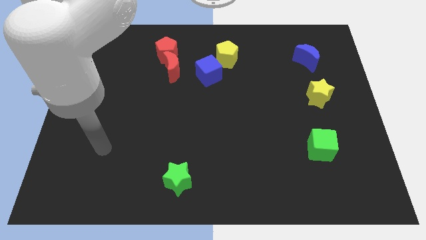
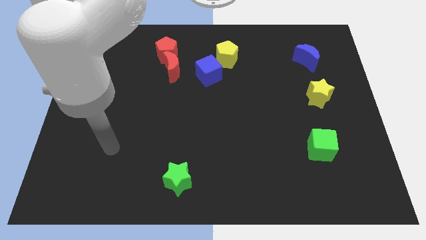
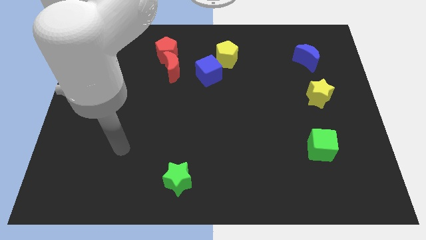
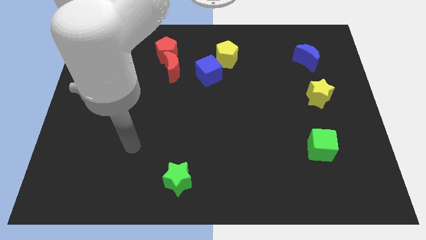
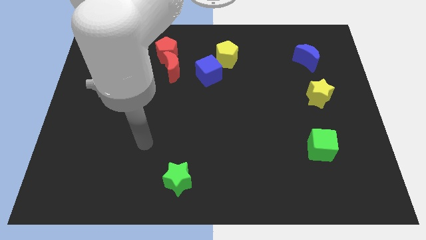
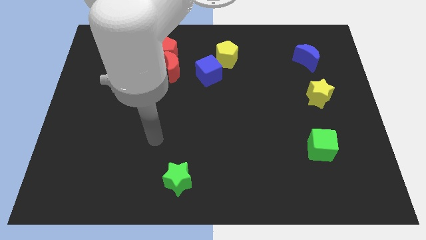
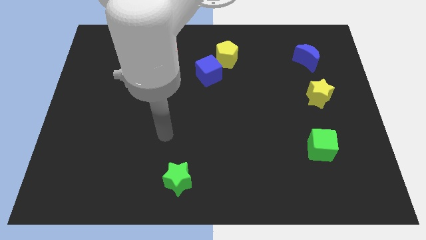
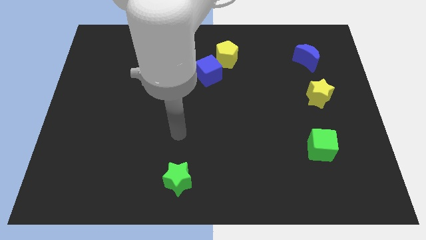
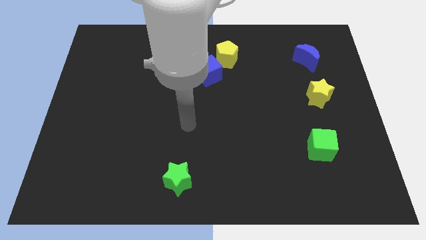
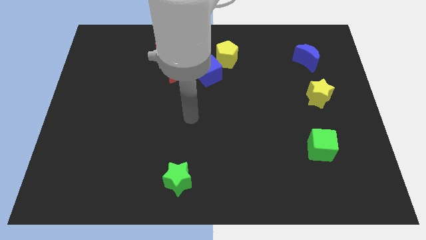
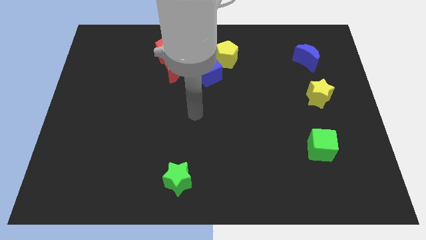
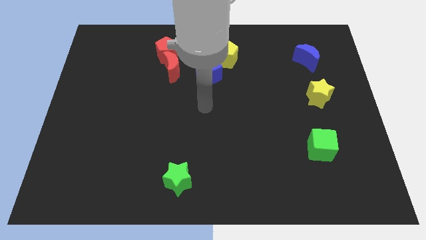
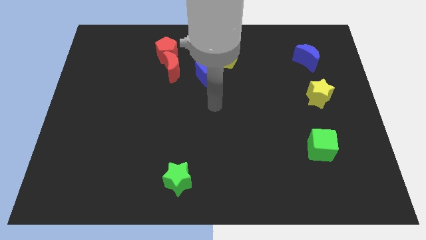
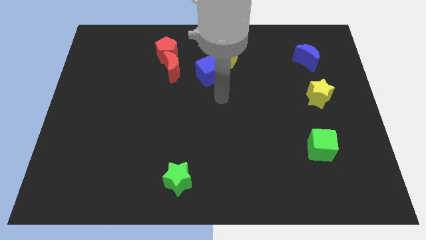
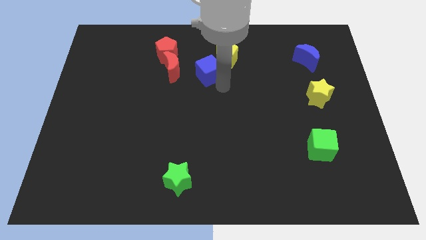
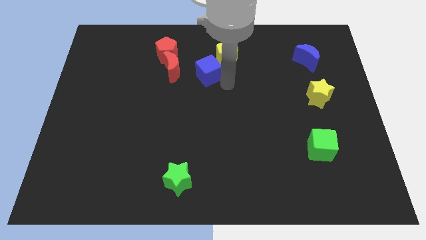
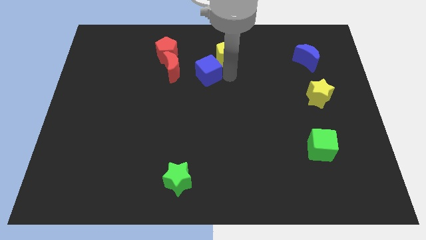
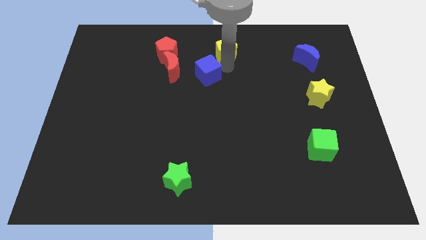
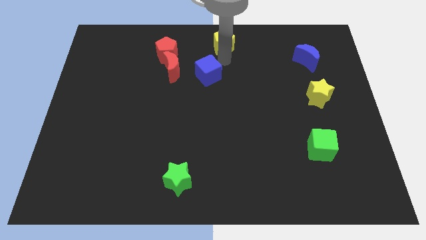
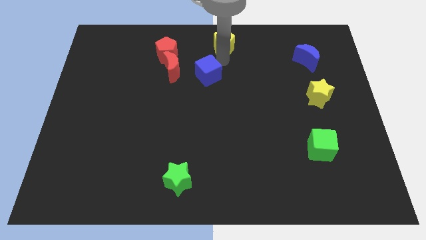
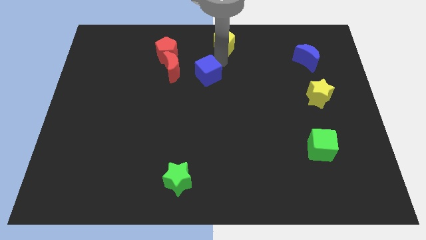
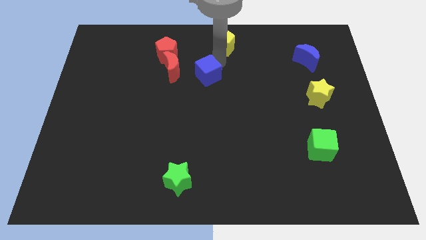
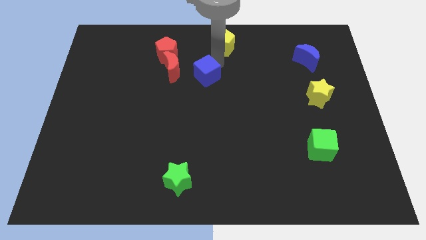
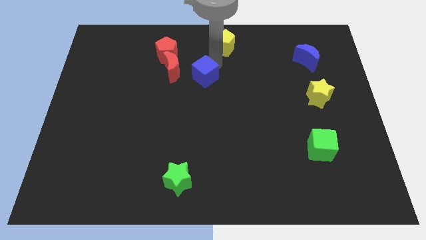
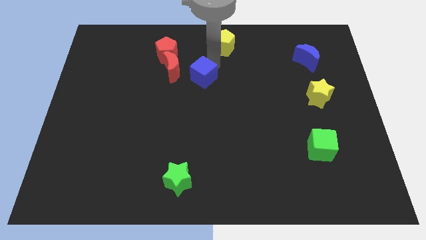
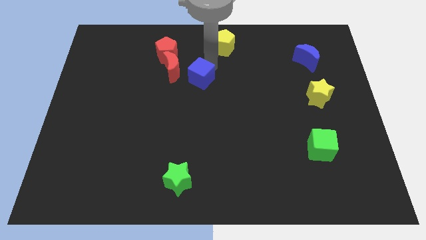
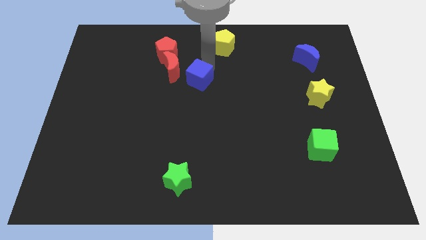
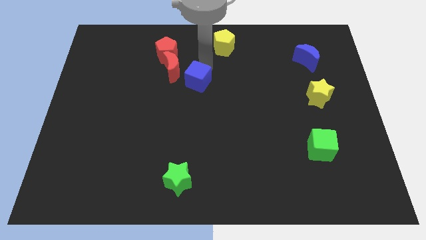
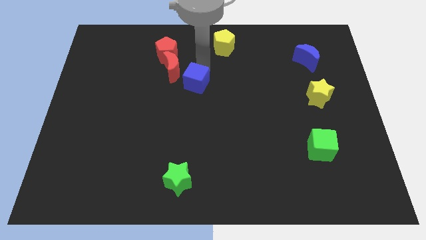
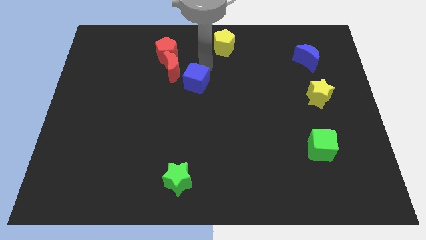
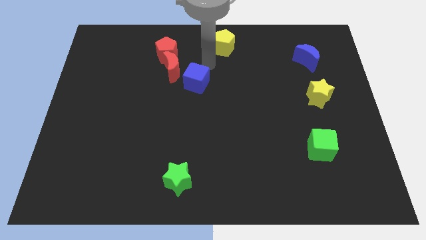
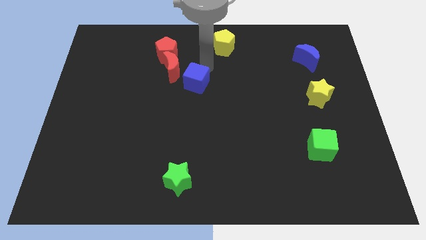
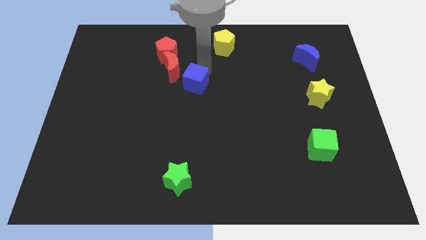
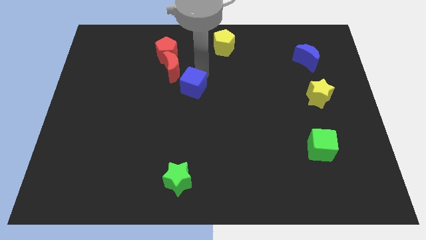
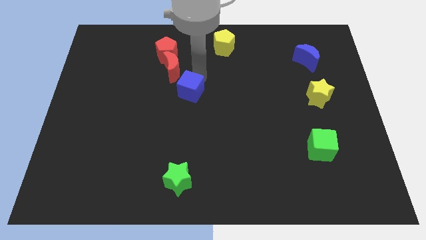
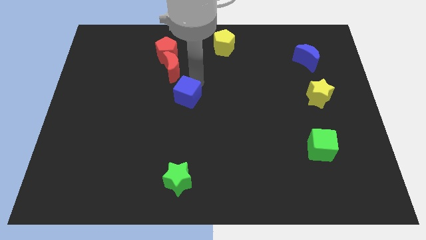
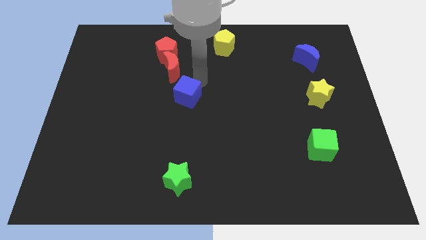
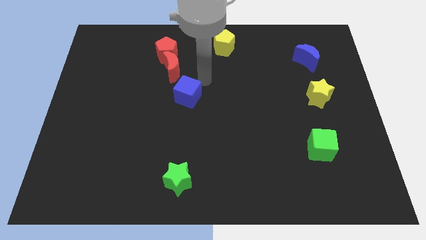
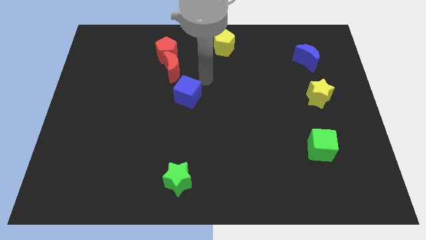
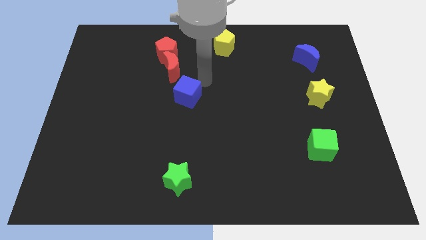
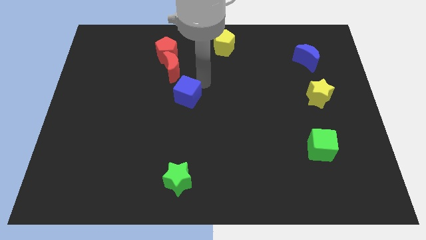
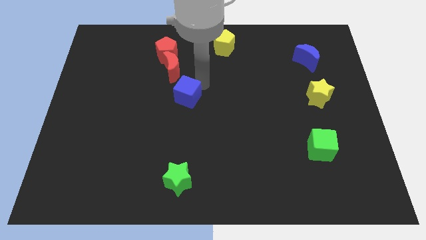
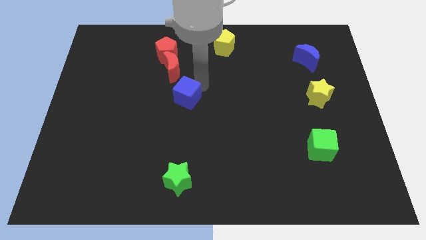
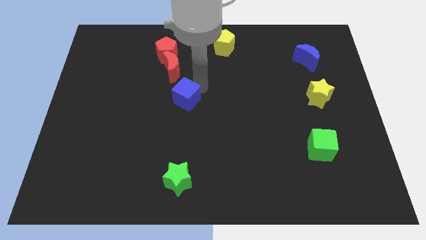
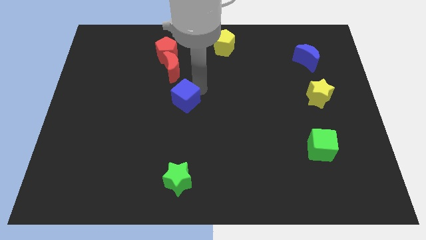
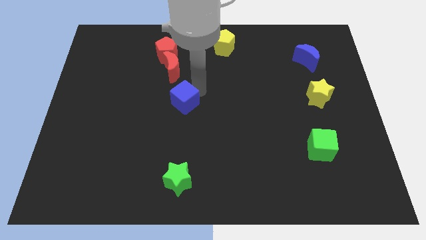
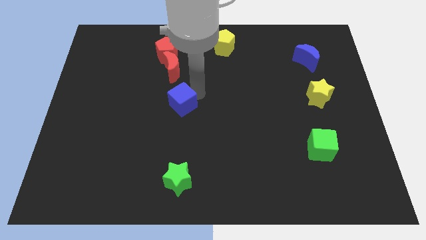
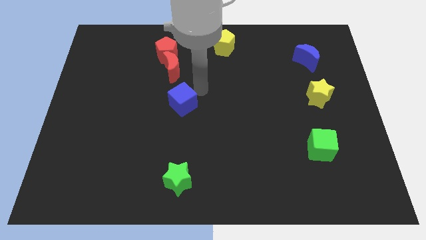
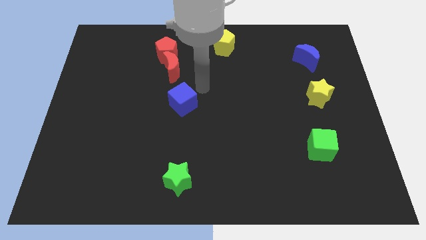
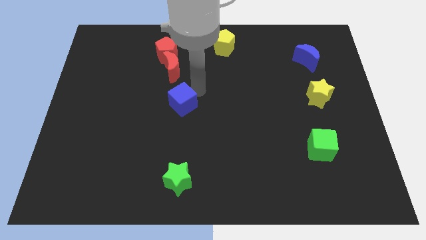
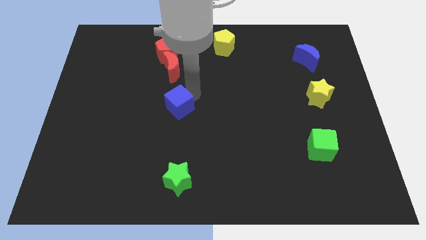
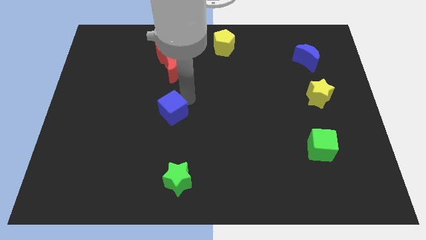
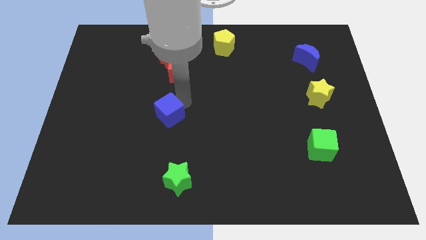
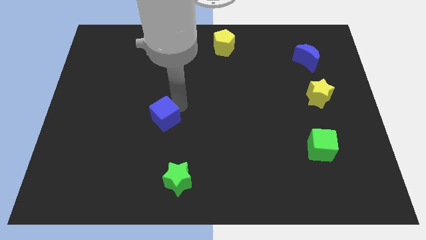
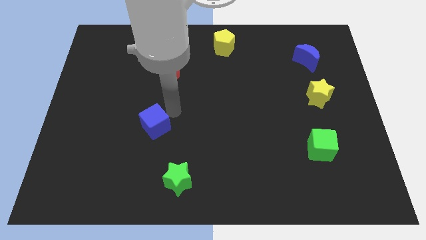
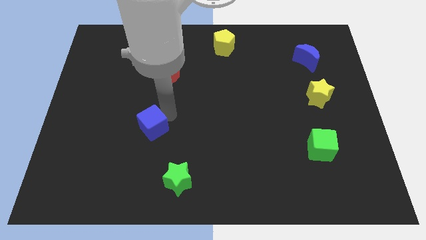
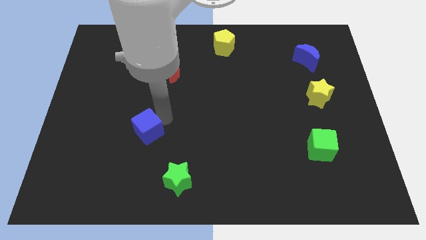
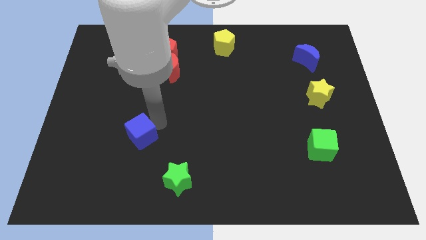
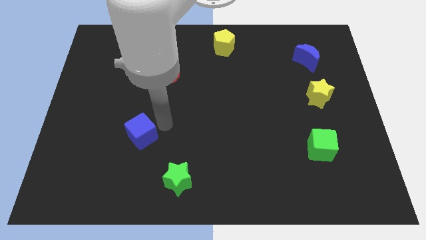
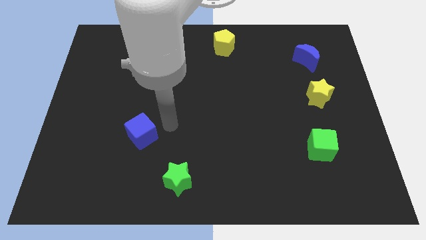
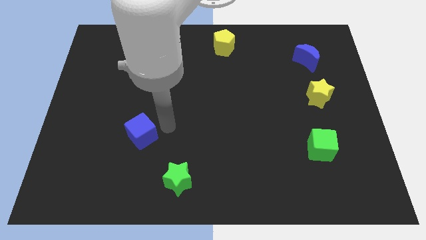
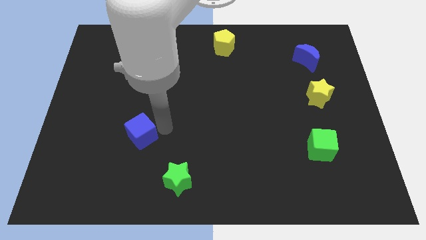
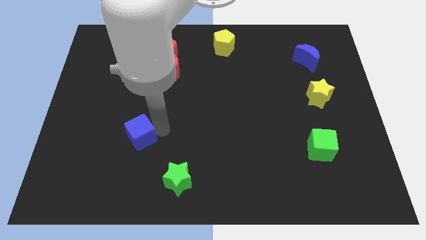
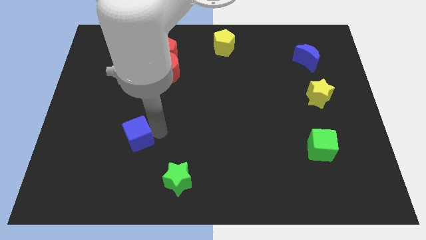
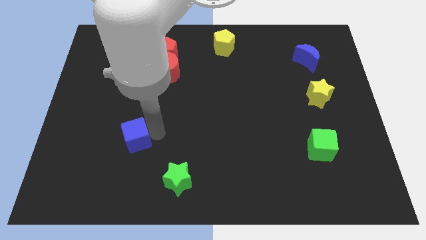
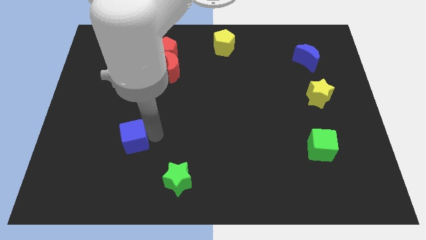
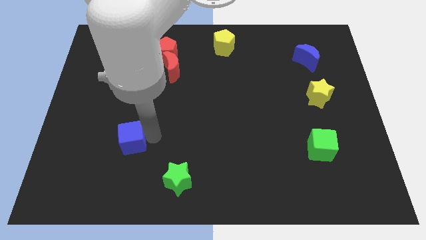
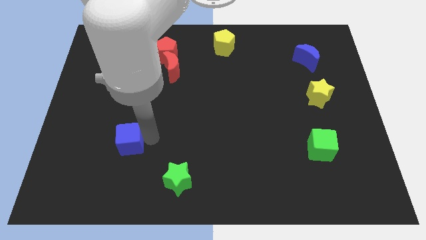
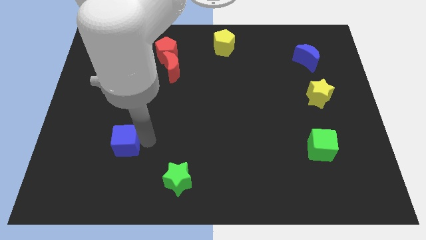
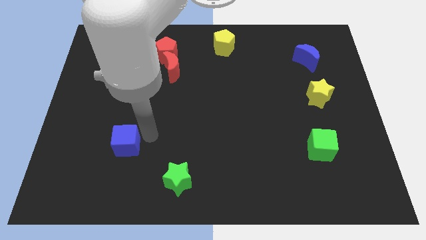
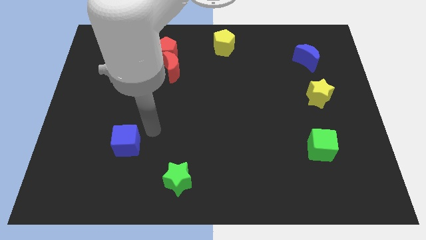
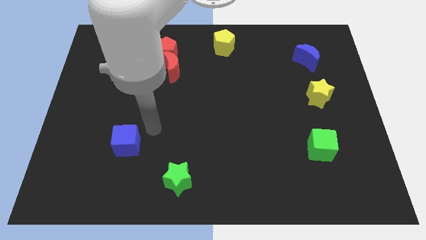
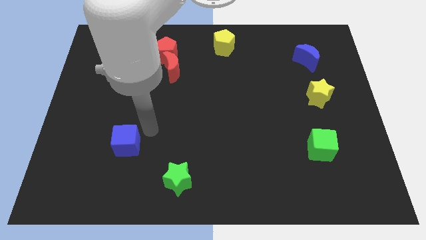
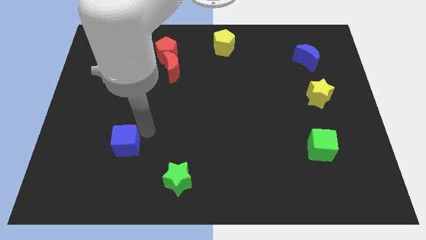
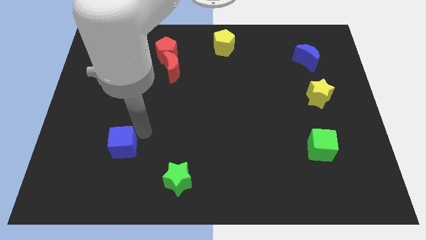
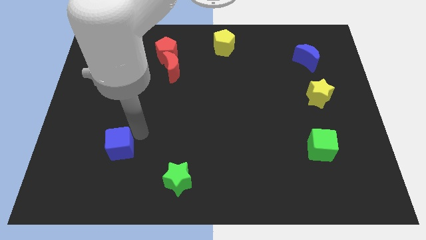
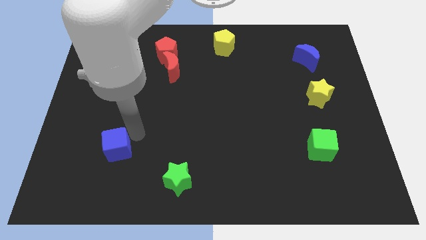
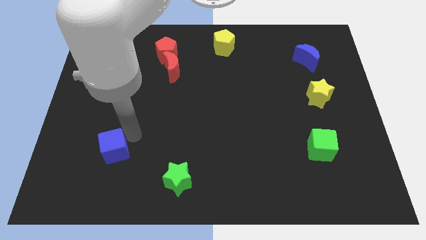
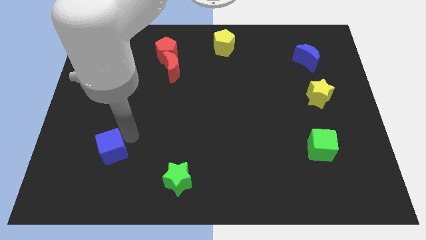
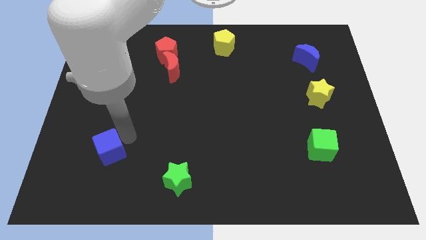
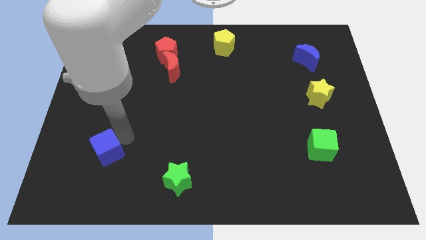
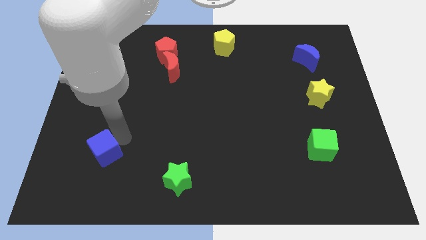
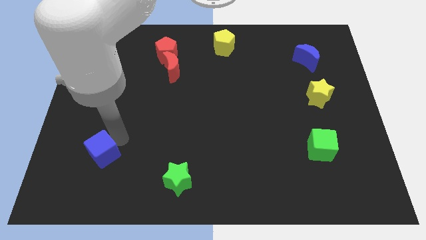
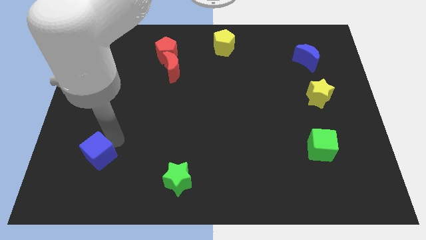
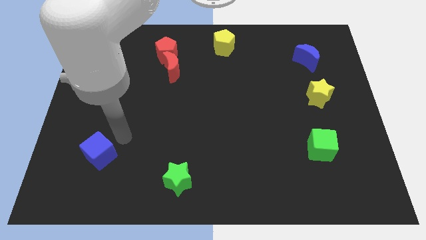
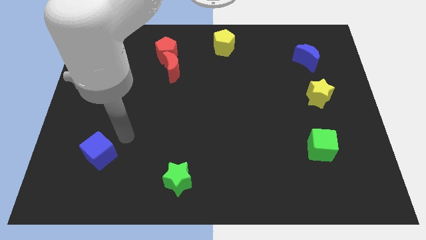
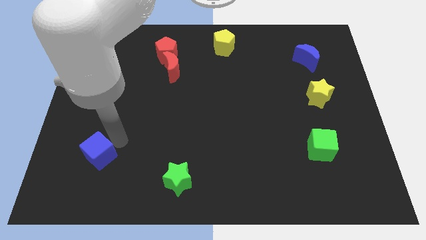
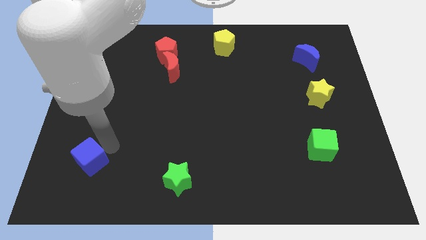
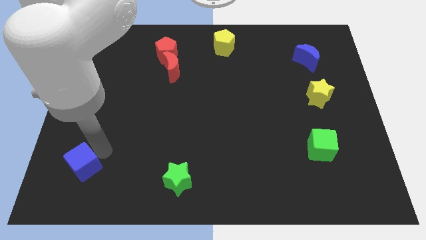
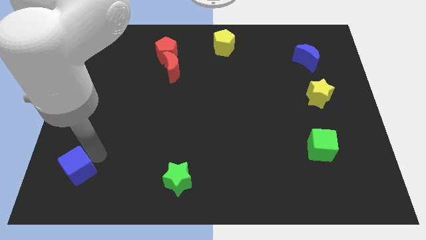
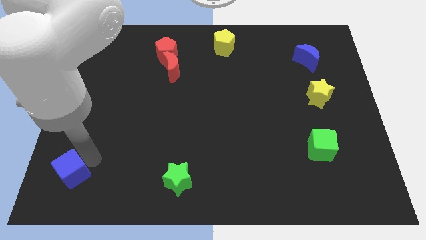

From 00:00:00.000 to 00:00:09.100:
move the blue cube to the lower left corner
